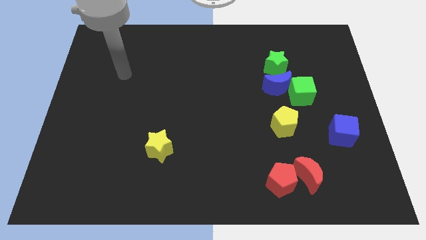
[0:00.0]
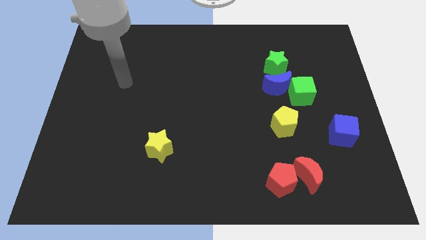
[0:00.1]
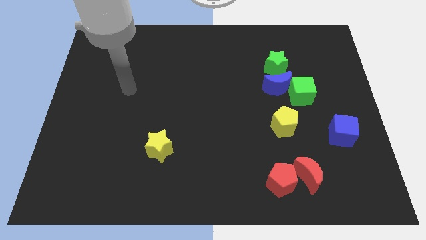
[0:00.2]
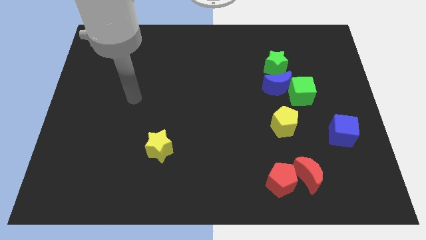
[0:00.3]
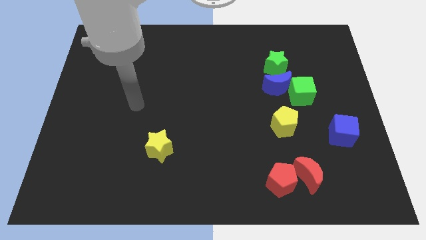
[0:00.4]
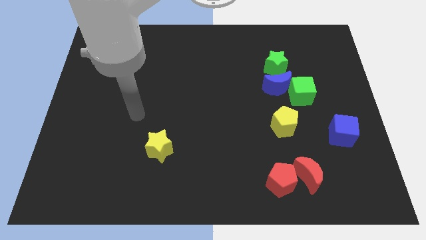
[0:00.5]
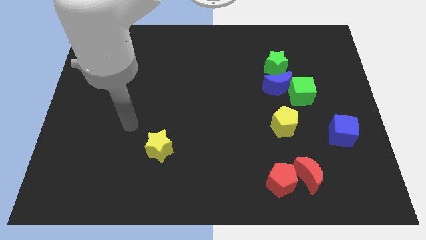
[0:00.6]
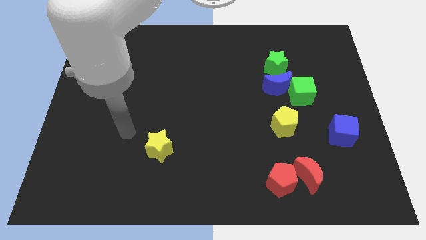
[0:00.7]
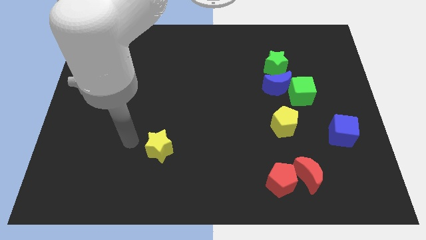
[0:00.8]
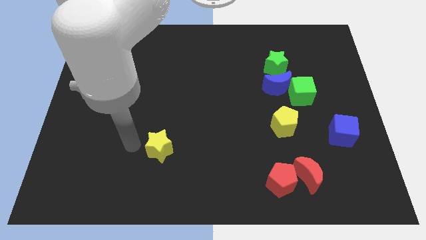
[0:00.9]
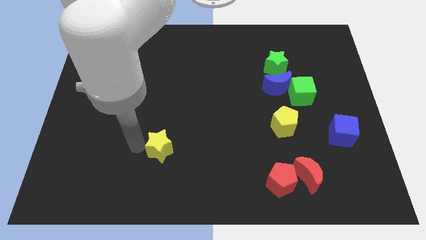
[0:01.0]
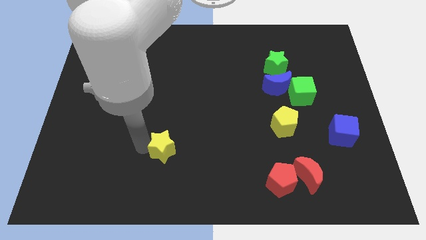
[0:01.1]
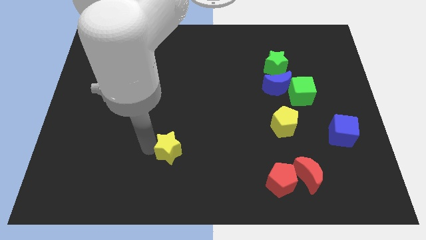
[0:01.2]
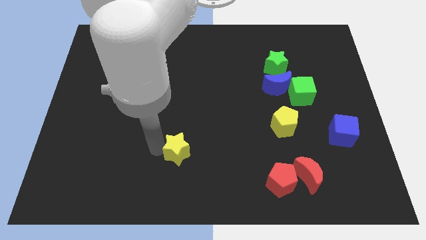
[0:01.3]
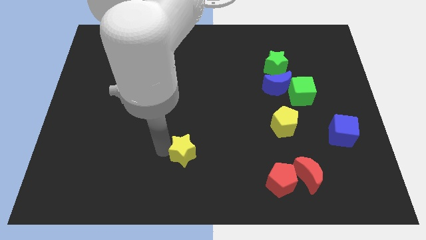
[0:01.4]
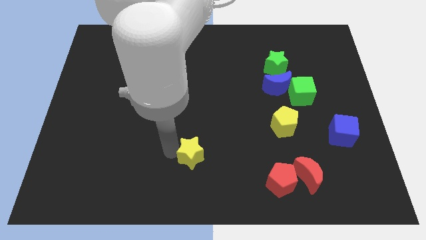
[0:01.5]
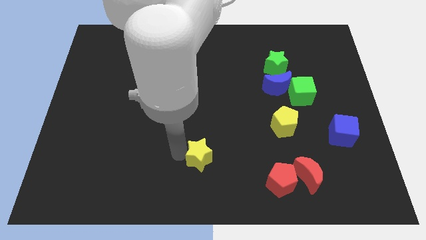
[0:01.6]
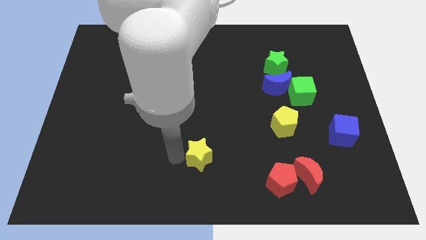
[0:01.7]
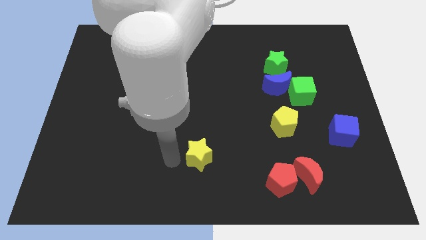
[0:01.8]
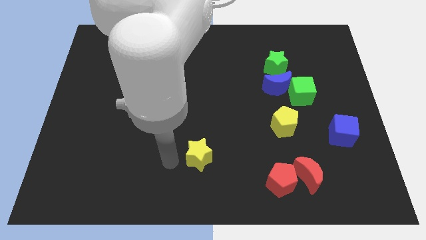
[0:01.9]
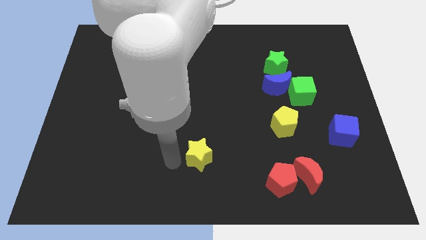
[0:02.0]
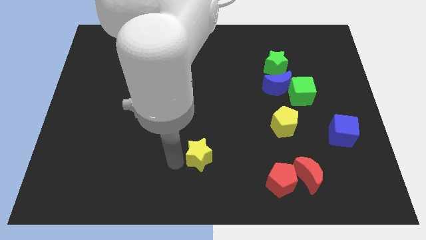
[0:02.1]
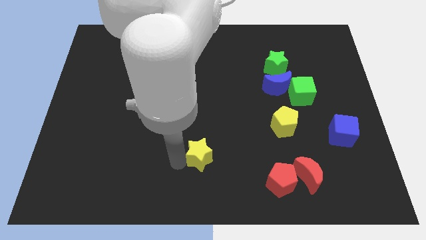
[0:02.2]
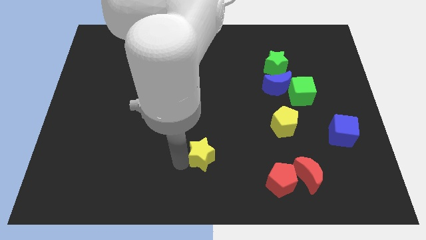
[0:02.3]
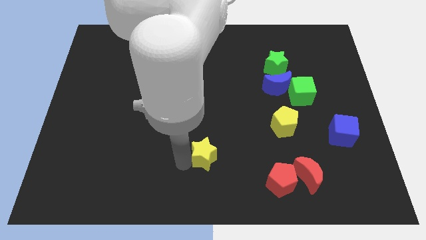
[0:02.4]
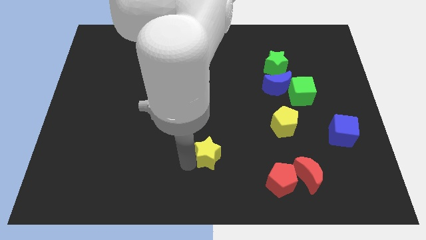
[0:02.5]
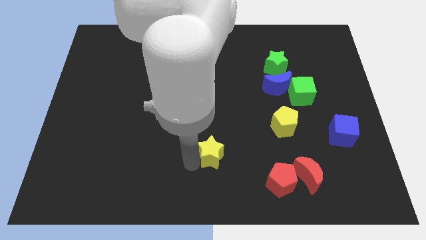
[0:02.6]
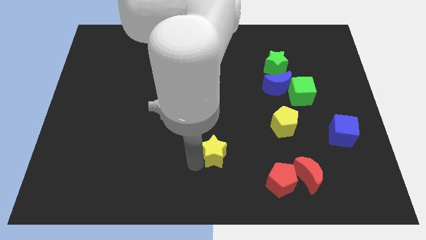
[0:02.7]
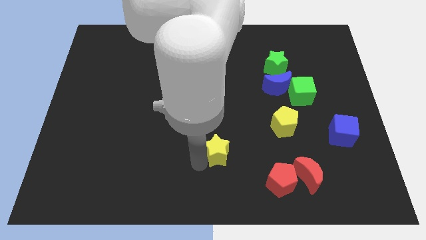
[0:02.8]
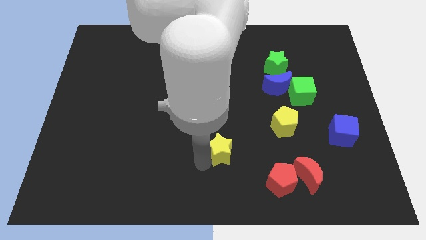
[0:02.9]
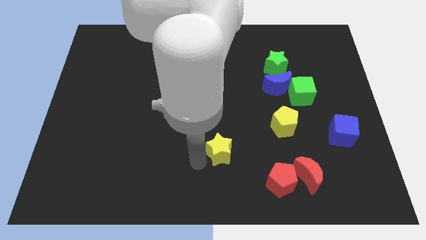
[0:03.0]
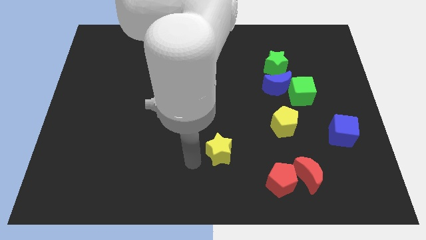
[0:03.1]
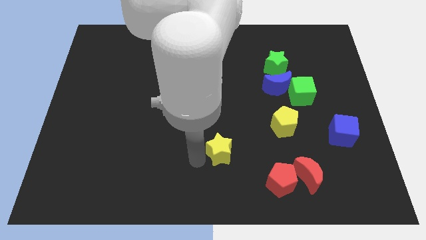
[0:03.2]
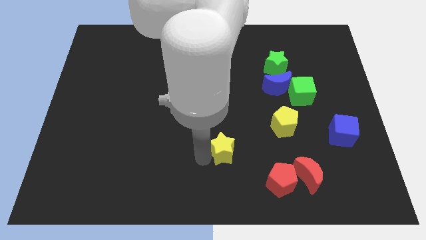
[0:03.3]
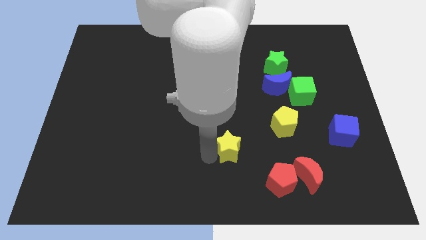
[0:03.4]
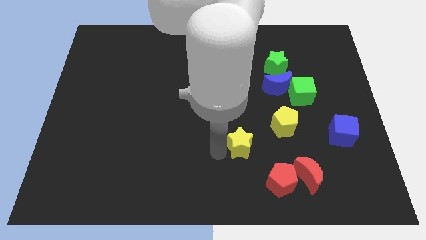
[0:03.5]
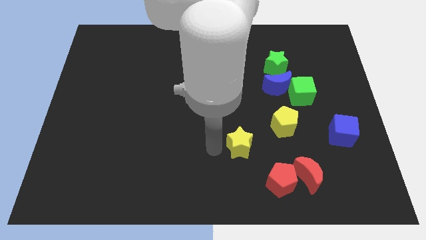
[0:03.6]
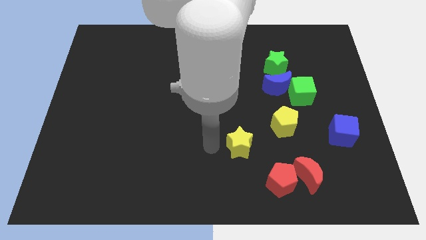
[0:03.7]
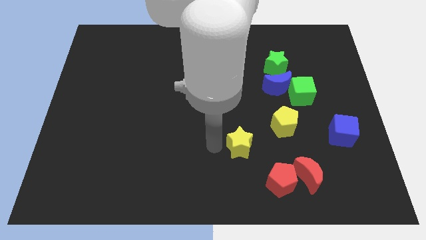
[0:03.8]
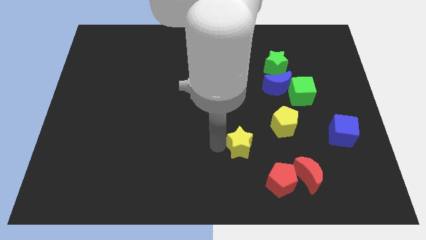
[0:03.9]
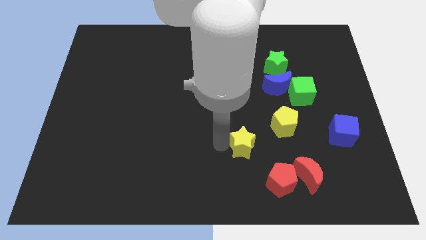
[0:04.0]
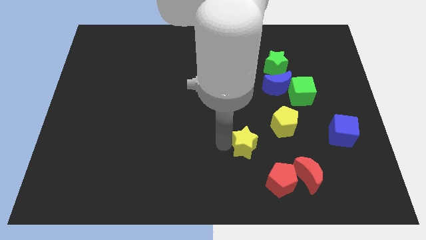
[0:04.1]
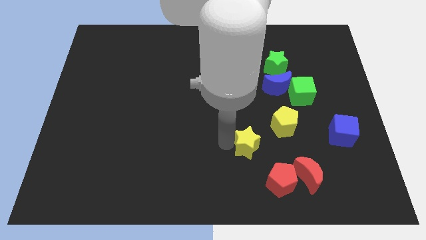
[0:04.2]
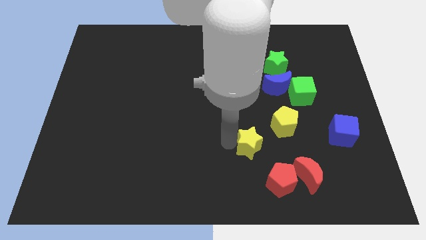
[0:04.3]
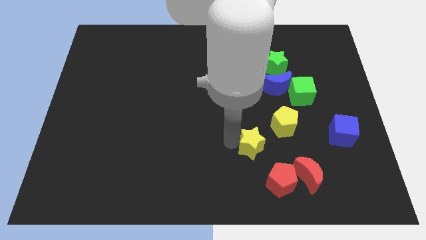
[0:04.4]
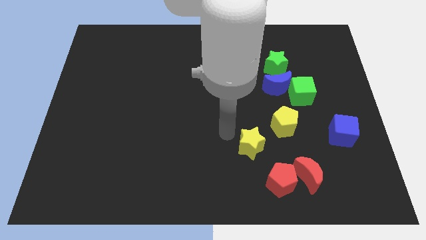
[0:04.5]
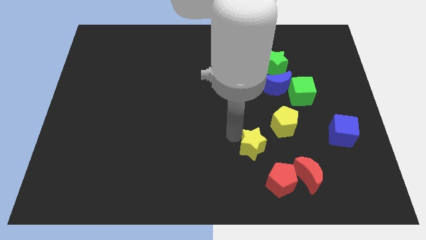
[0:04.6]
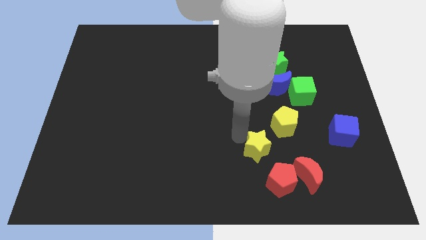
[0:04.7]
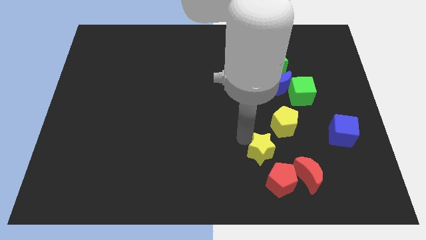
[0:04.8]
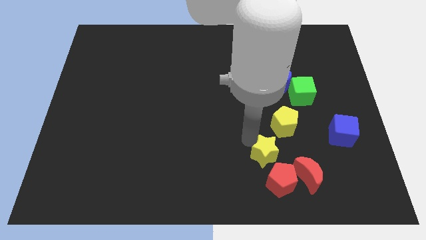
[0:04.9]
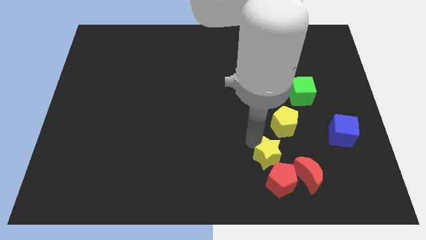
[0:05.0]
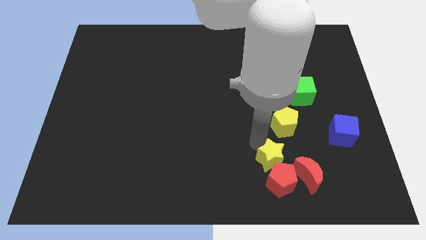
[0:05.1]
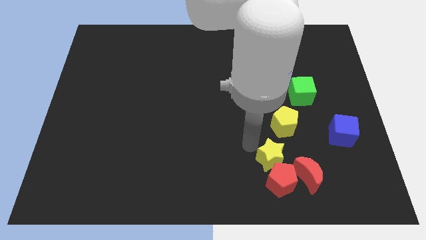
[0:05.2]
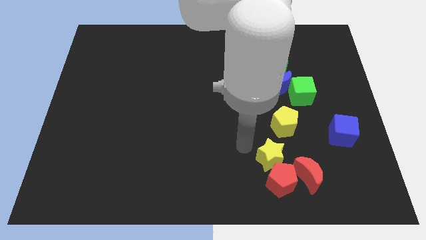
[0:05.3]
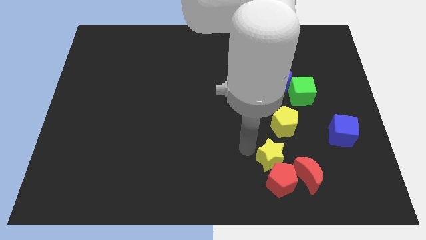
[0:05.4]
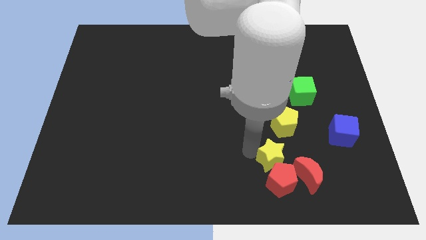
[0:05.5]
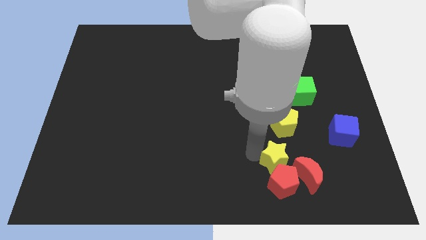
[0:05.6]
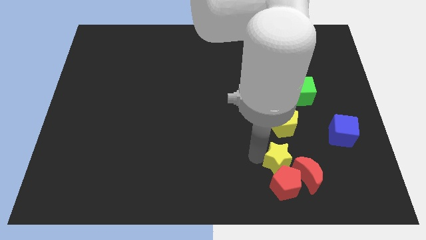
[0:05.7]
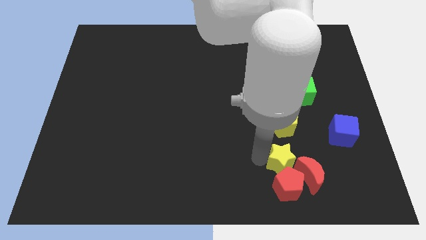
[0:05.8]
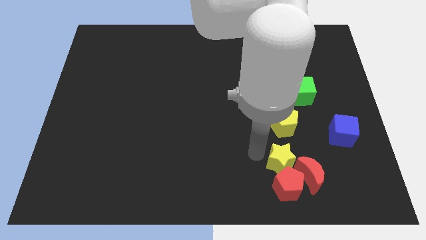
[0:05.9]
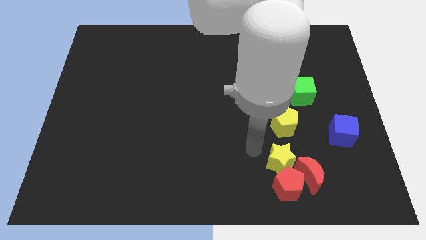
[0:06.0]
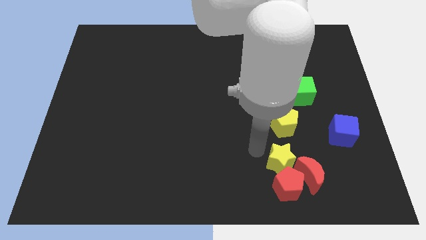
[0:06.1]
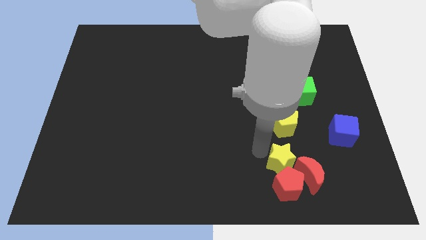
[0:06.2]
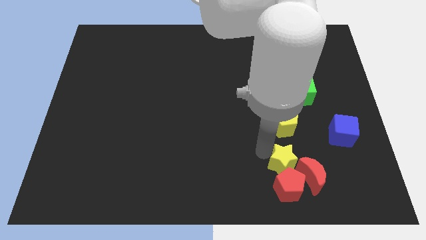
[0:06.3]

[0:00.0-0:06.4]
push the yellow star next to the red moon

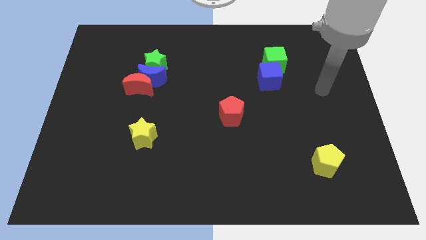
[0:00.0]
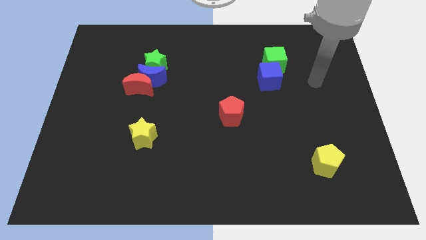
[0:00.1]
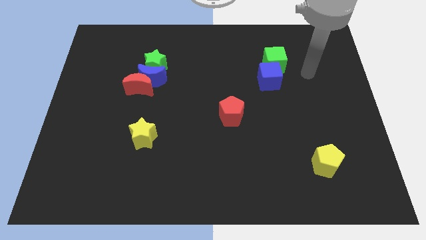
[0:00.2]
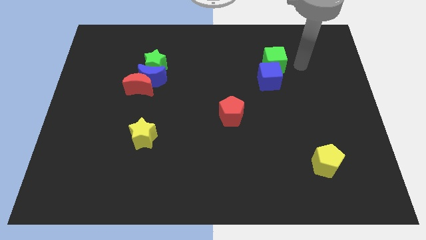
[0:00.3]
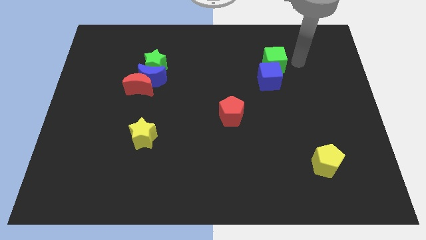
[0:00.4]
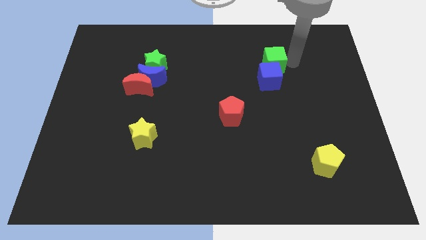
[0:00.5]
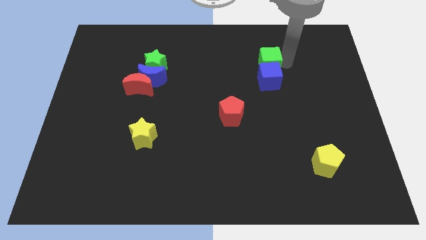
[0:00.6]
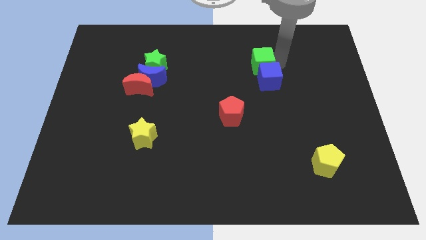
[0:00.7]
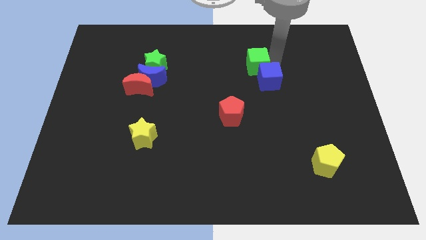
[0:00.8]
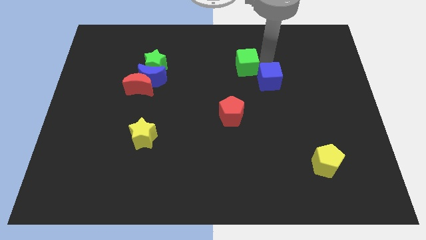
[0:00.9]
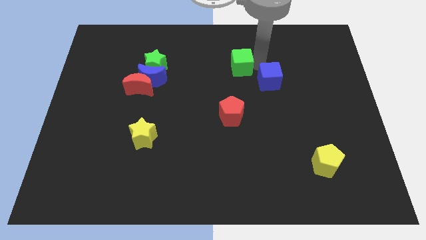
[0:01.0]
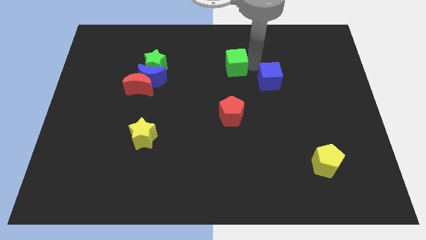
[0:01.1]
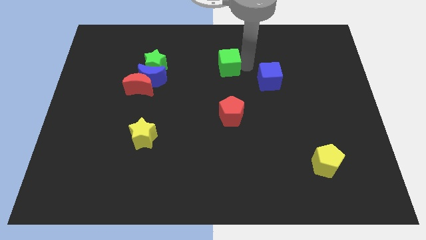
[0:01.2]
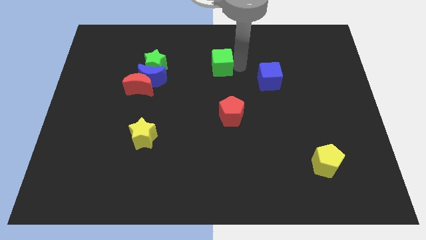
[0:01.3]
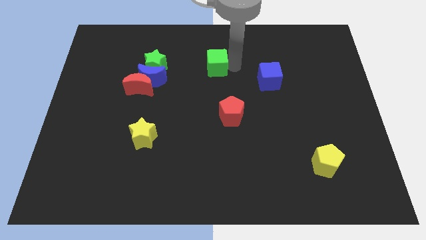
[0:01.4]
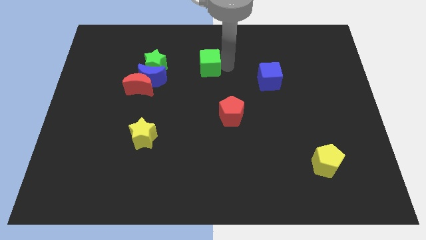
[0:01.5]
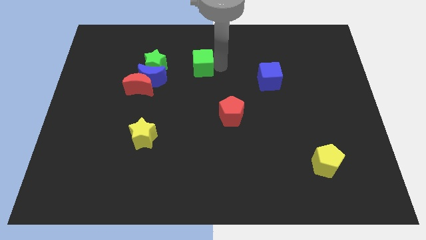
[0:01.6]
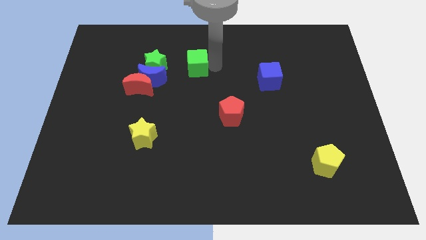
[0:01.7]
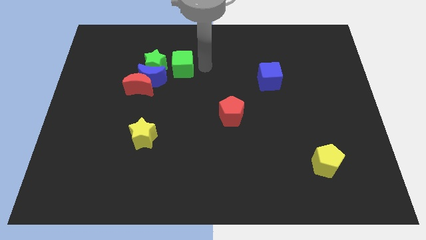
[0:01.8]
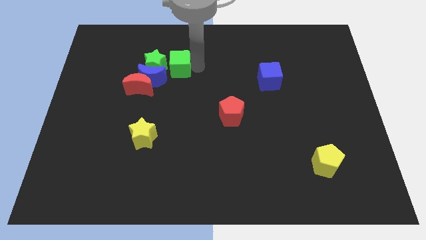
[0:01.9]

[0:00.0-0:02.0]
slide the green cube towards the green star
